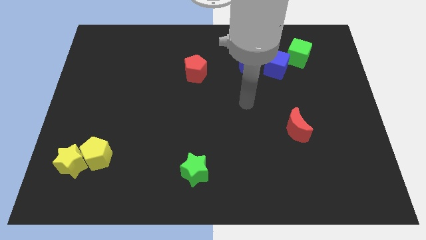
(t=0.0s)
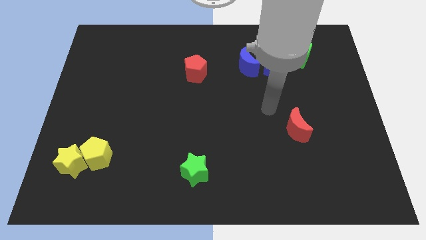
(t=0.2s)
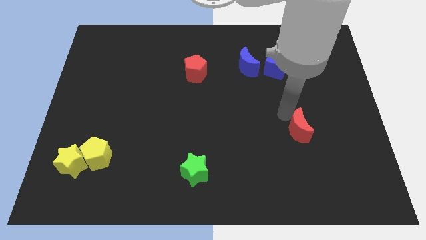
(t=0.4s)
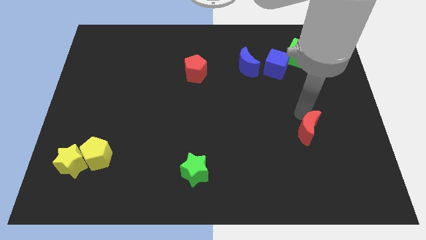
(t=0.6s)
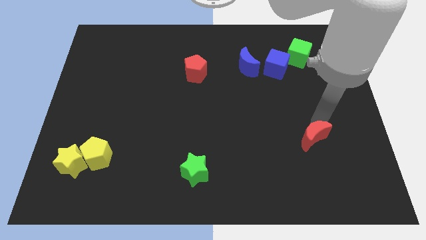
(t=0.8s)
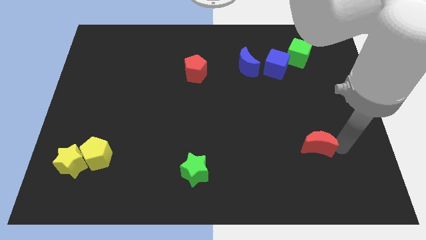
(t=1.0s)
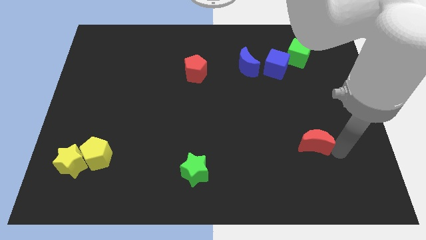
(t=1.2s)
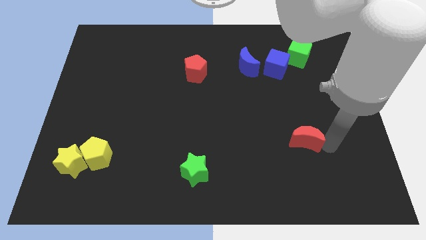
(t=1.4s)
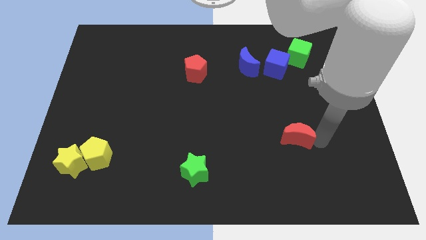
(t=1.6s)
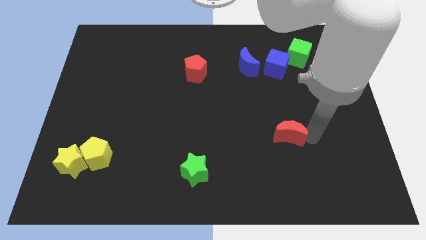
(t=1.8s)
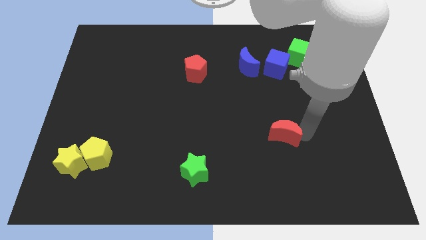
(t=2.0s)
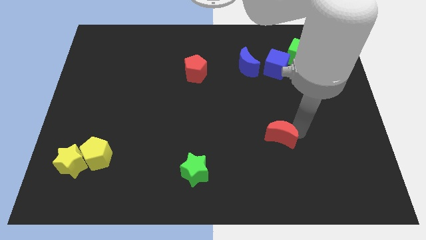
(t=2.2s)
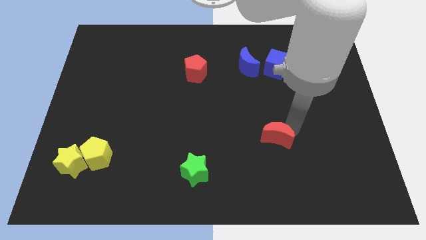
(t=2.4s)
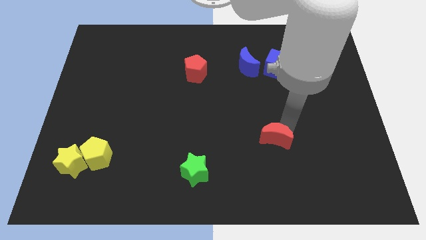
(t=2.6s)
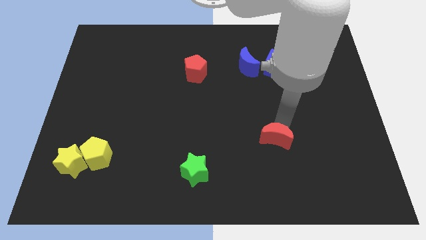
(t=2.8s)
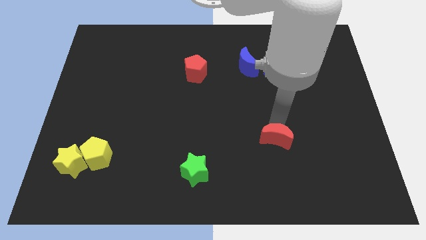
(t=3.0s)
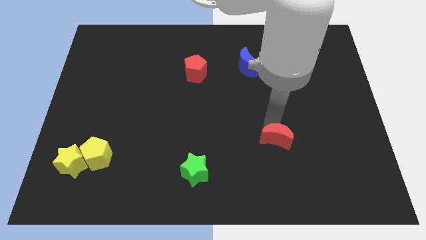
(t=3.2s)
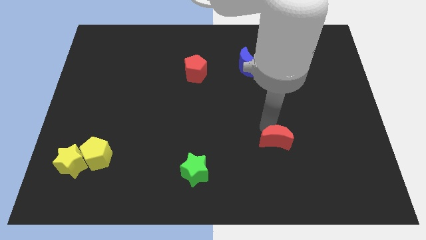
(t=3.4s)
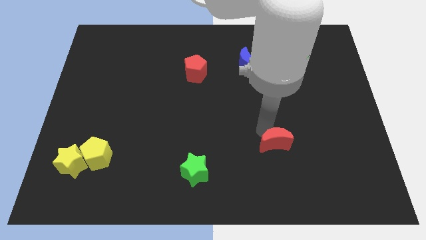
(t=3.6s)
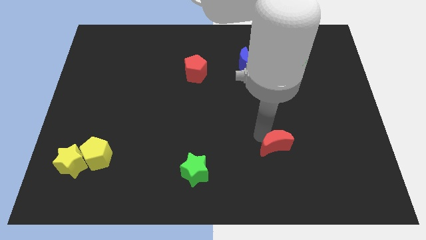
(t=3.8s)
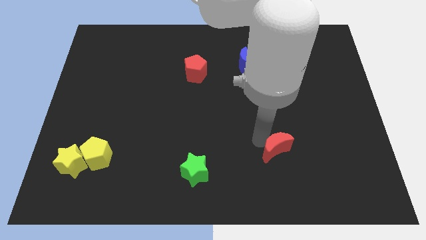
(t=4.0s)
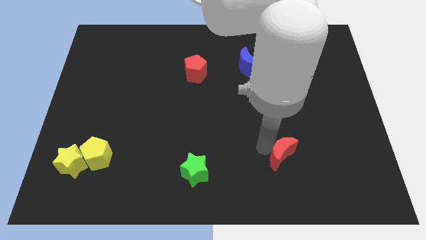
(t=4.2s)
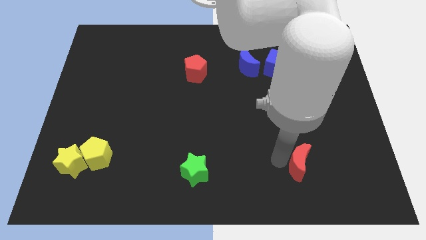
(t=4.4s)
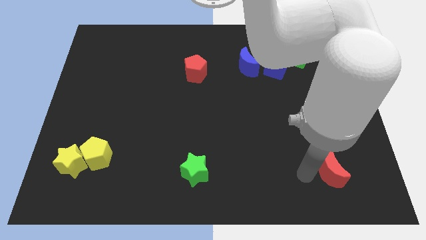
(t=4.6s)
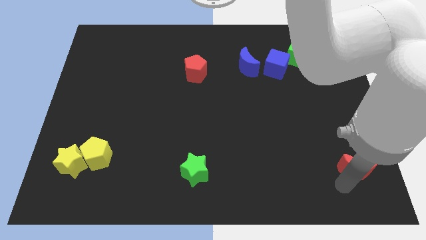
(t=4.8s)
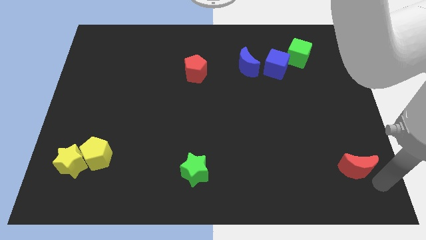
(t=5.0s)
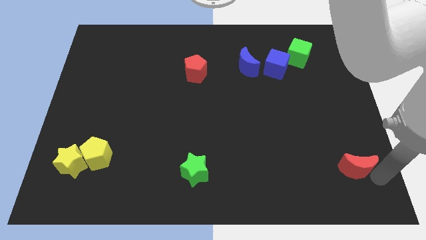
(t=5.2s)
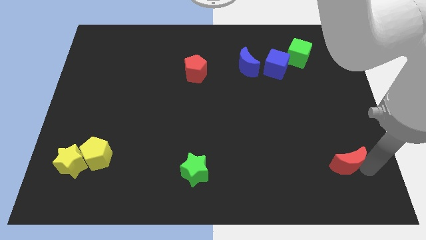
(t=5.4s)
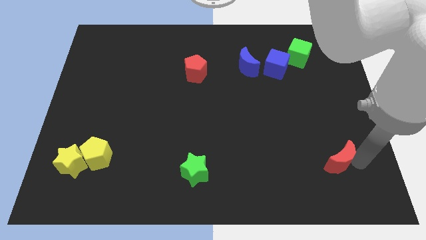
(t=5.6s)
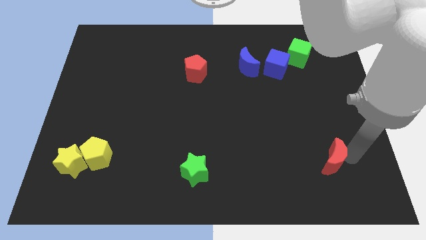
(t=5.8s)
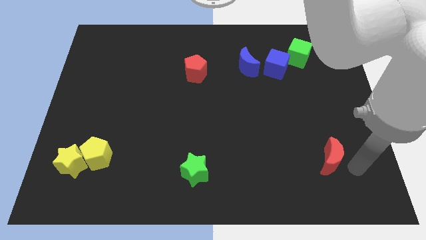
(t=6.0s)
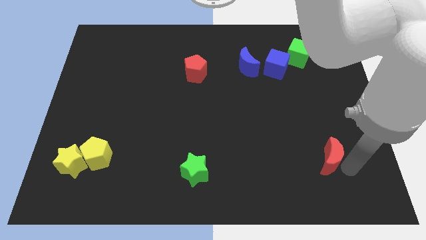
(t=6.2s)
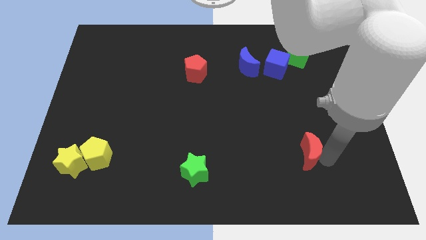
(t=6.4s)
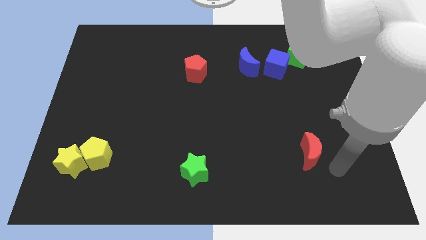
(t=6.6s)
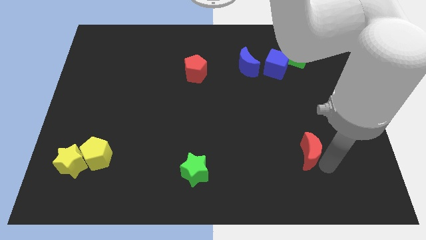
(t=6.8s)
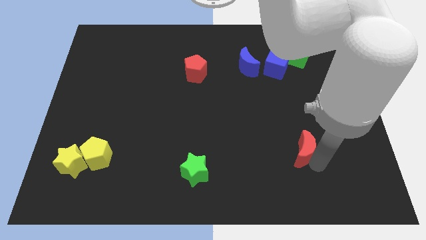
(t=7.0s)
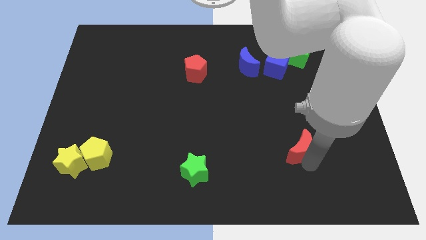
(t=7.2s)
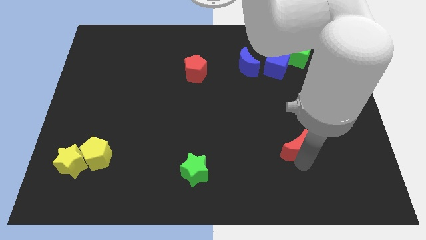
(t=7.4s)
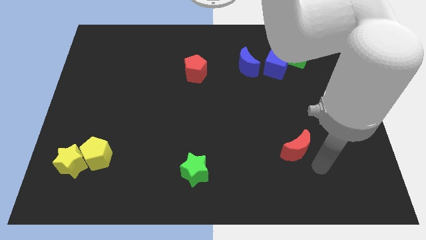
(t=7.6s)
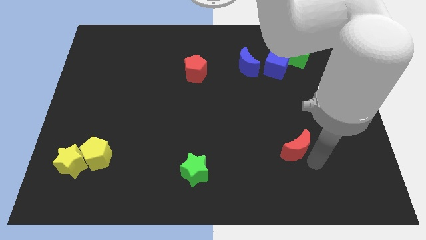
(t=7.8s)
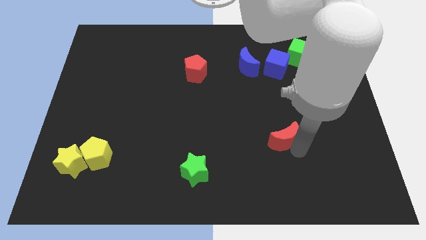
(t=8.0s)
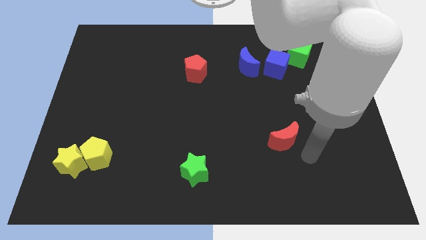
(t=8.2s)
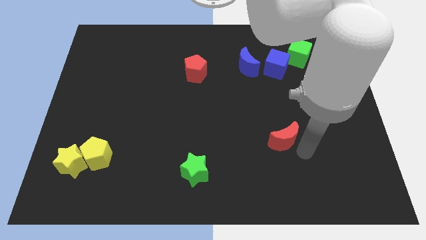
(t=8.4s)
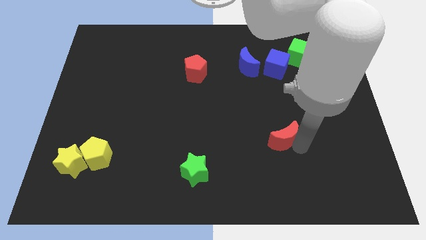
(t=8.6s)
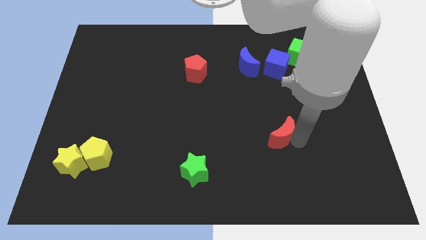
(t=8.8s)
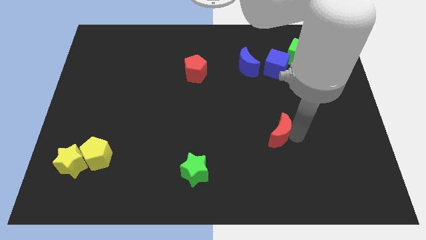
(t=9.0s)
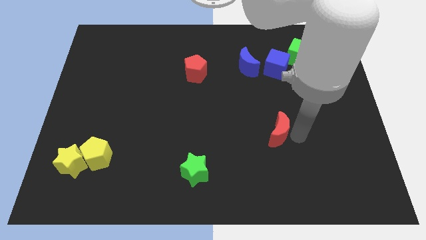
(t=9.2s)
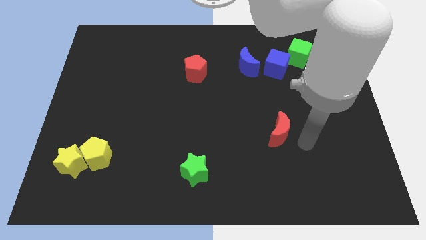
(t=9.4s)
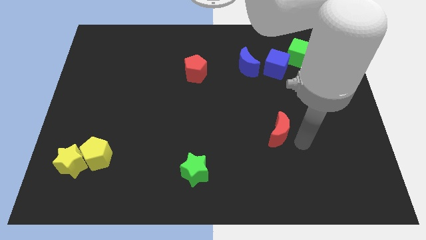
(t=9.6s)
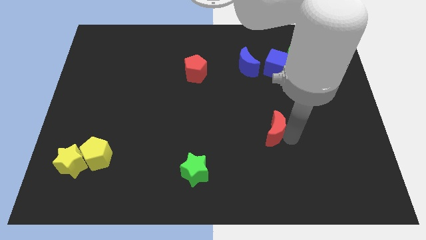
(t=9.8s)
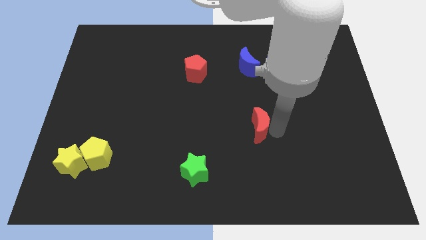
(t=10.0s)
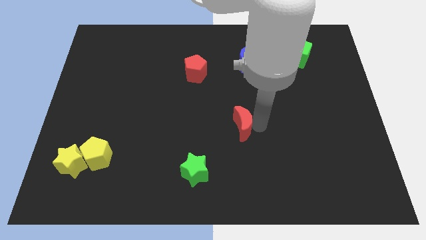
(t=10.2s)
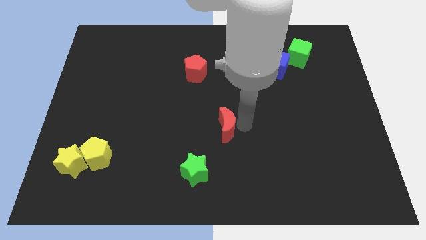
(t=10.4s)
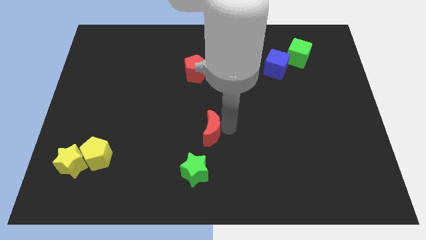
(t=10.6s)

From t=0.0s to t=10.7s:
slide the red moon to the top of the green star

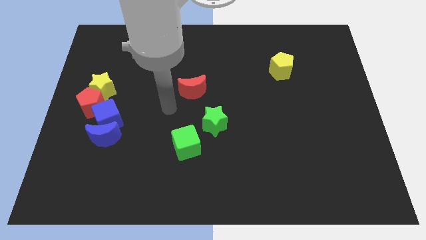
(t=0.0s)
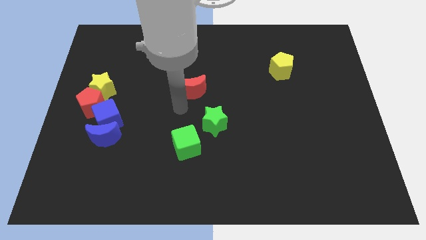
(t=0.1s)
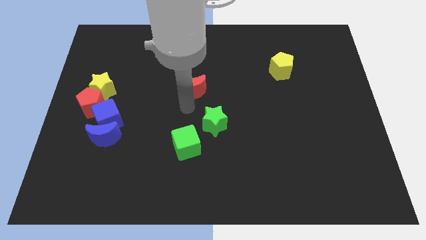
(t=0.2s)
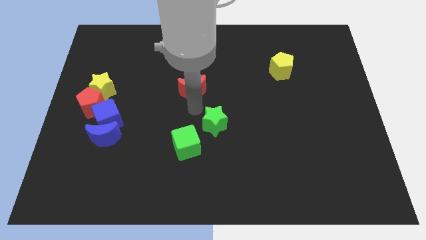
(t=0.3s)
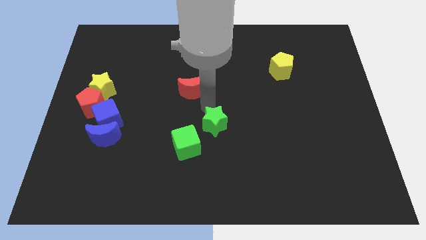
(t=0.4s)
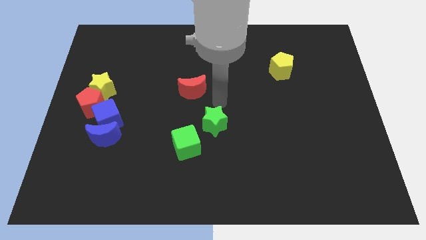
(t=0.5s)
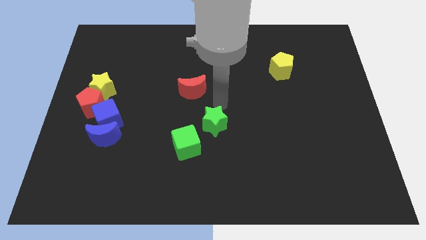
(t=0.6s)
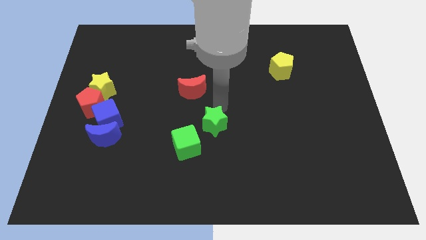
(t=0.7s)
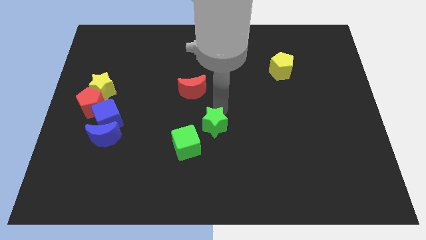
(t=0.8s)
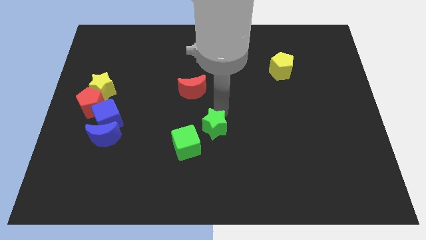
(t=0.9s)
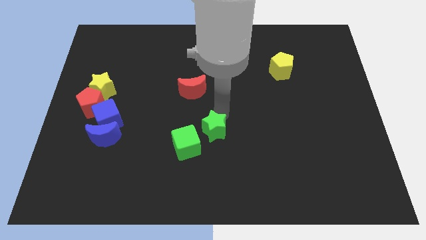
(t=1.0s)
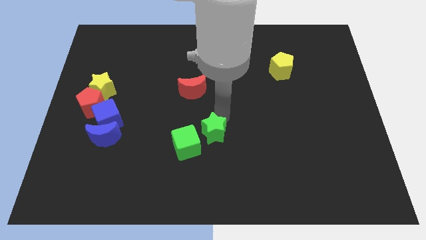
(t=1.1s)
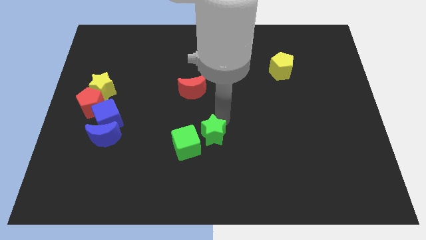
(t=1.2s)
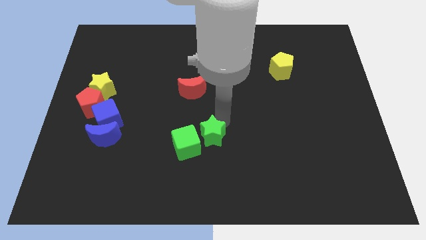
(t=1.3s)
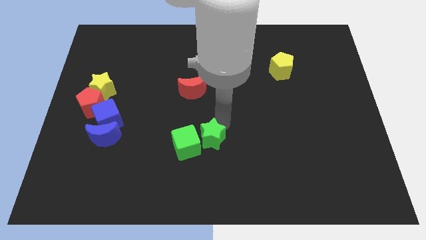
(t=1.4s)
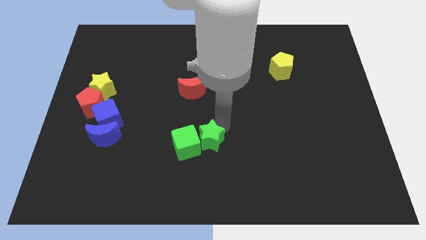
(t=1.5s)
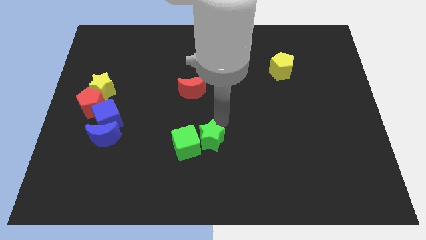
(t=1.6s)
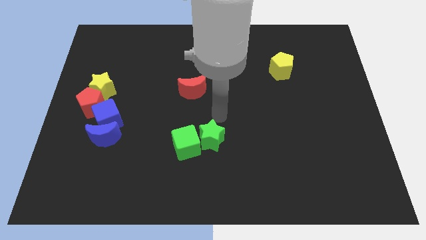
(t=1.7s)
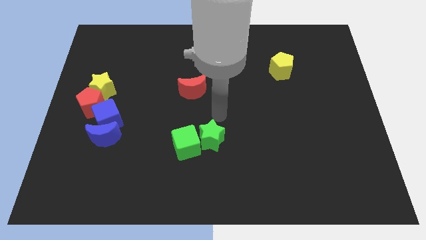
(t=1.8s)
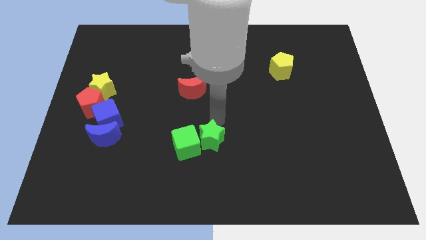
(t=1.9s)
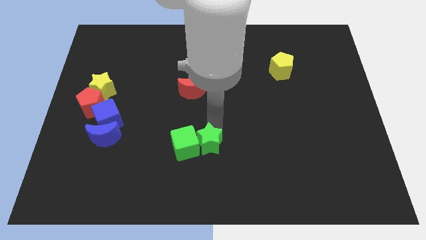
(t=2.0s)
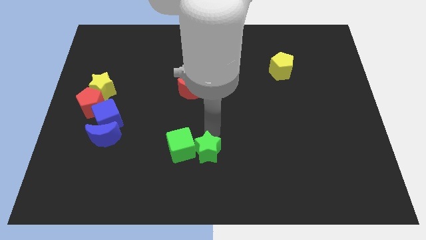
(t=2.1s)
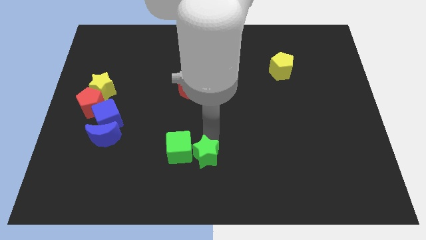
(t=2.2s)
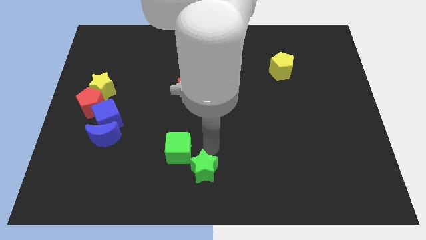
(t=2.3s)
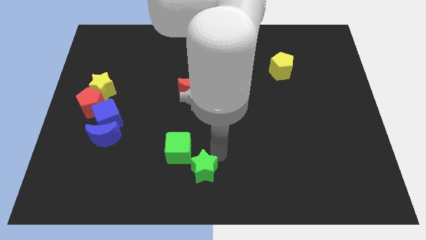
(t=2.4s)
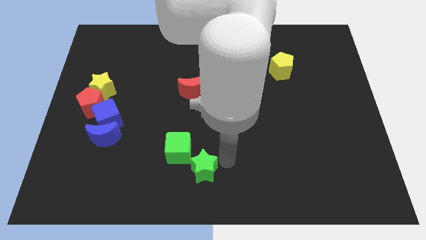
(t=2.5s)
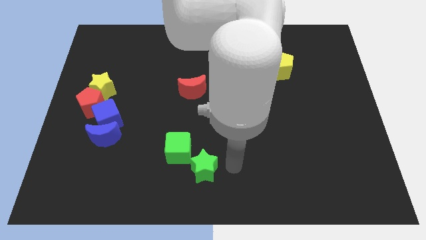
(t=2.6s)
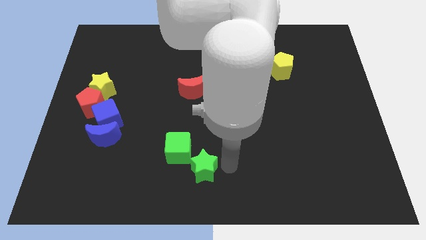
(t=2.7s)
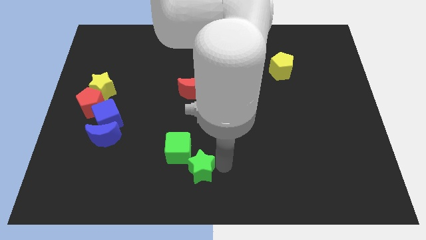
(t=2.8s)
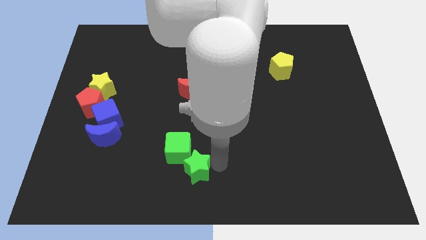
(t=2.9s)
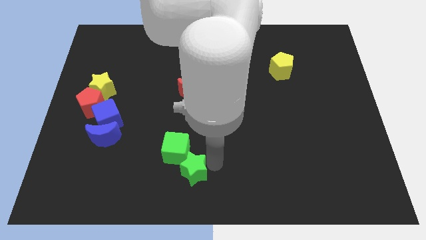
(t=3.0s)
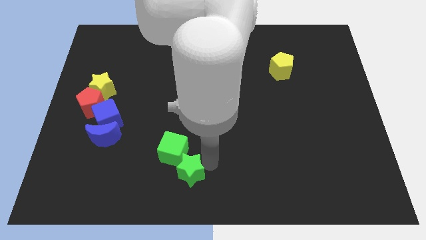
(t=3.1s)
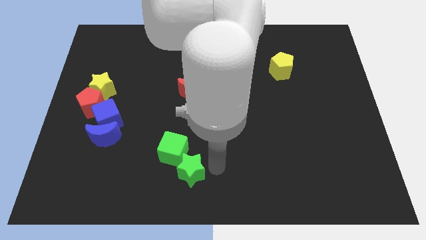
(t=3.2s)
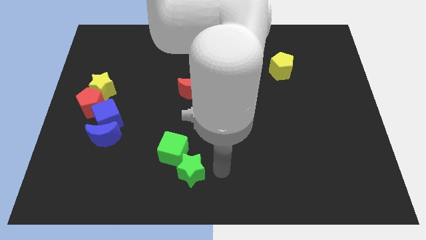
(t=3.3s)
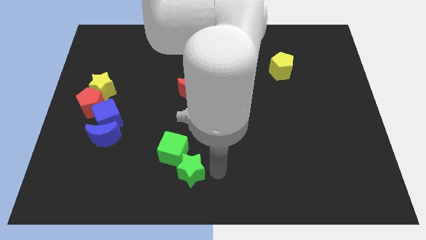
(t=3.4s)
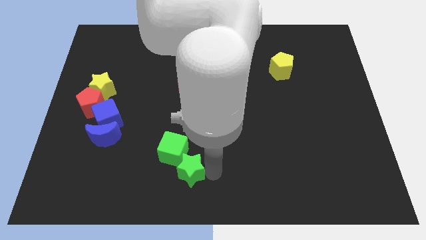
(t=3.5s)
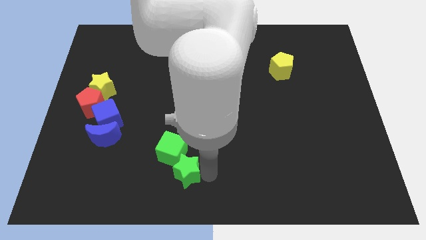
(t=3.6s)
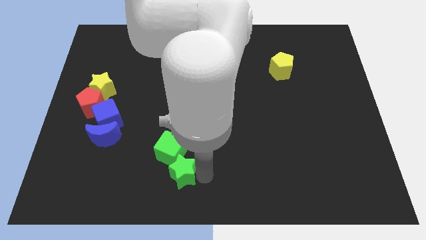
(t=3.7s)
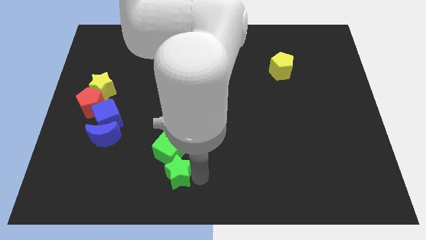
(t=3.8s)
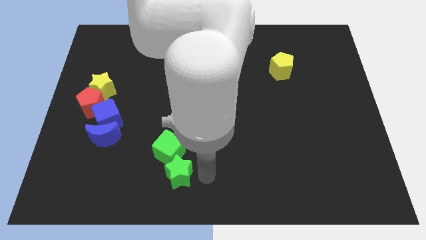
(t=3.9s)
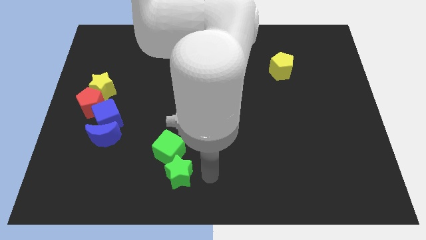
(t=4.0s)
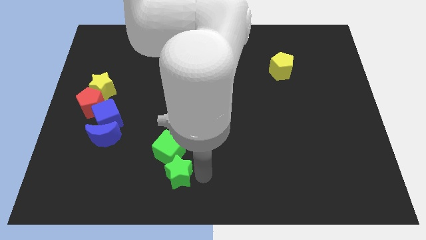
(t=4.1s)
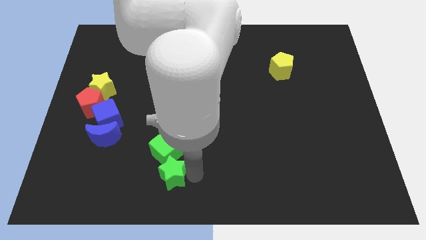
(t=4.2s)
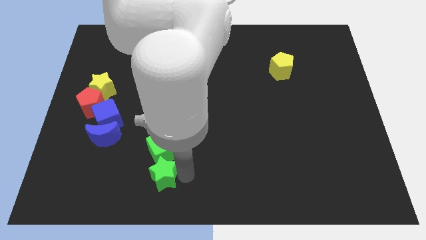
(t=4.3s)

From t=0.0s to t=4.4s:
put the green star diagonally down and to the left of the green cube
